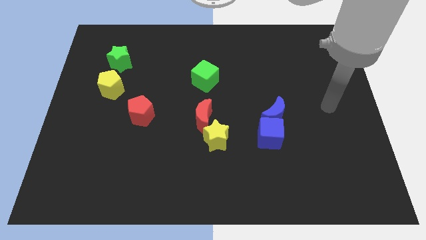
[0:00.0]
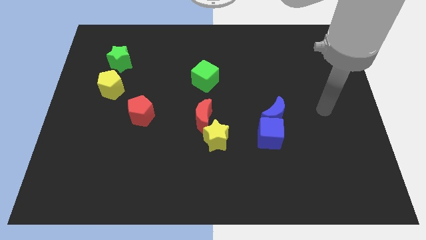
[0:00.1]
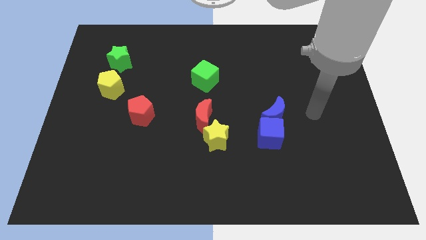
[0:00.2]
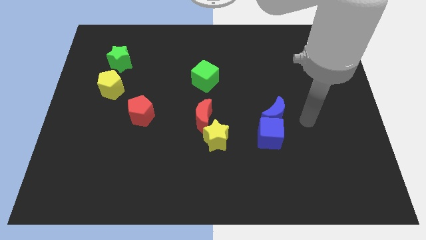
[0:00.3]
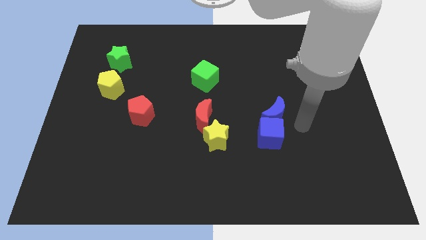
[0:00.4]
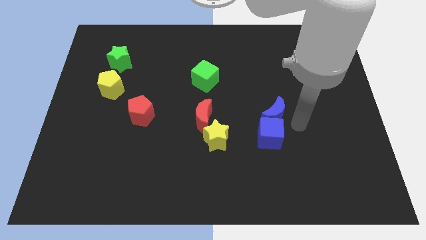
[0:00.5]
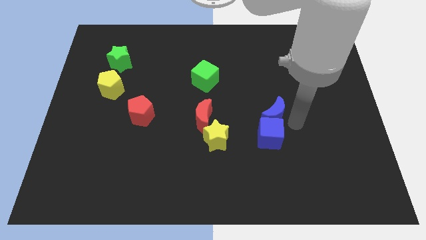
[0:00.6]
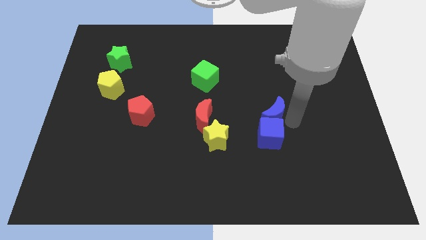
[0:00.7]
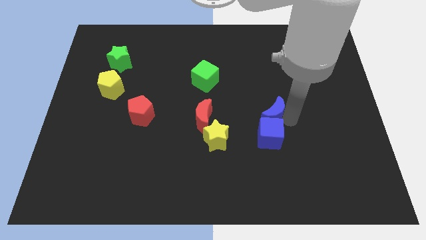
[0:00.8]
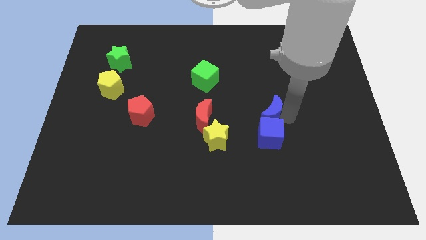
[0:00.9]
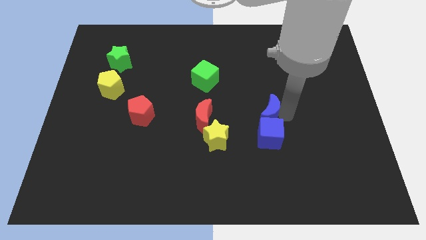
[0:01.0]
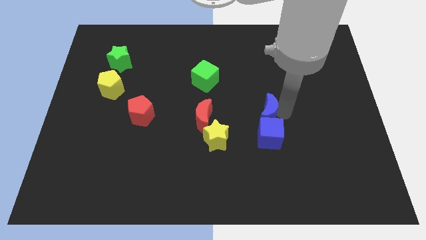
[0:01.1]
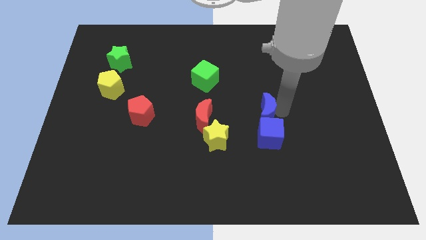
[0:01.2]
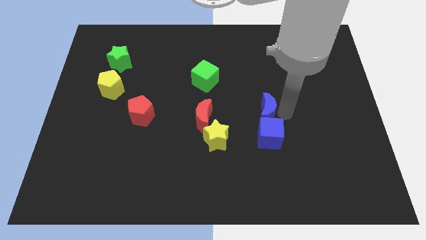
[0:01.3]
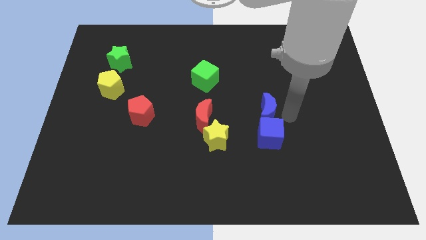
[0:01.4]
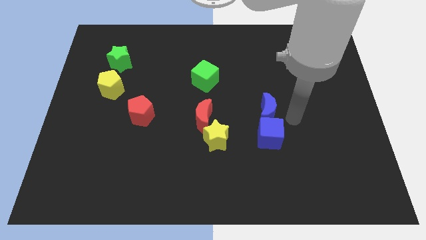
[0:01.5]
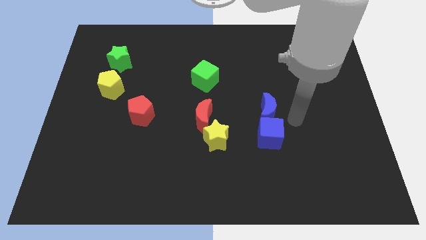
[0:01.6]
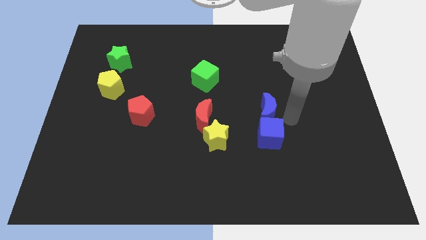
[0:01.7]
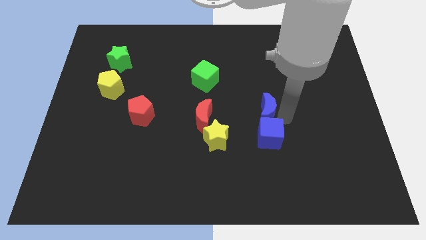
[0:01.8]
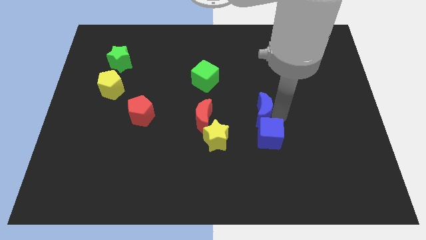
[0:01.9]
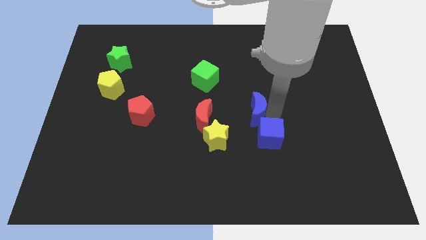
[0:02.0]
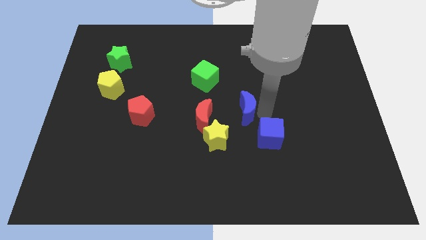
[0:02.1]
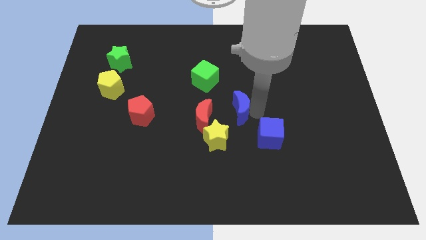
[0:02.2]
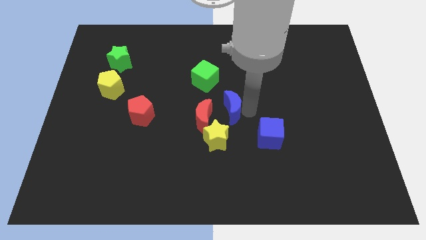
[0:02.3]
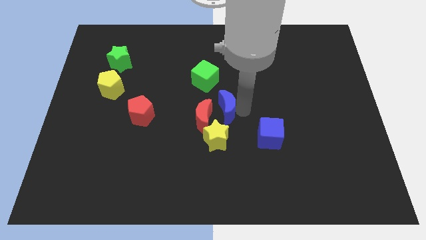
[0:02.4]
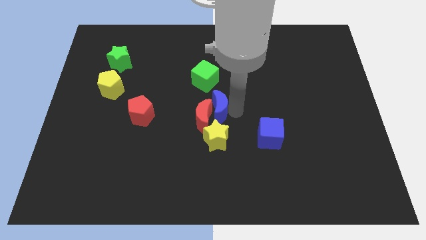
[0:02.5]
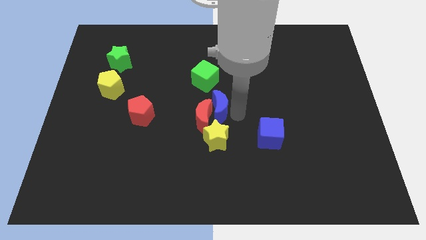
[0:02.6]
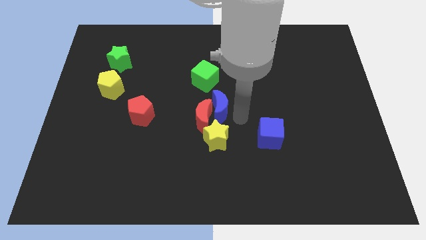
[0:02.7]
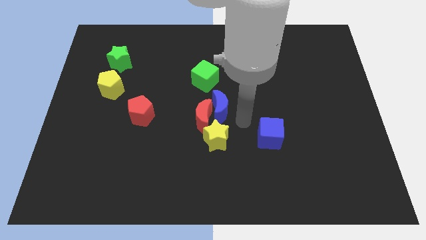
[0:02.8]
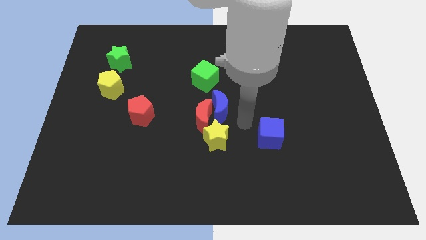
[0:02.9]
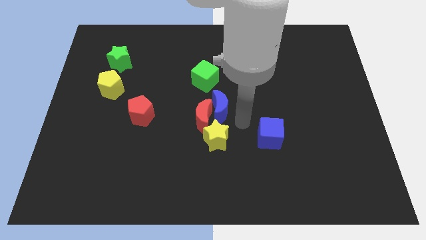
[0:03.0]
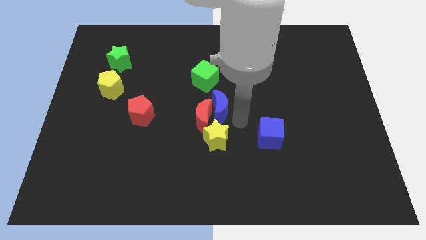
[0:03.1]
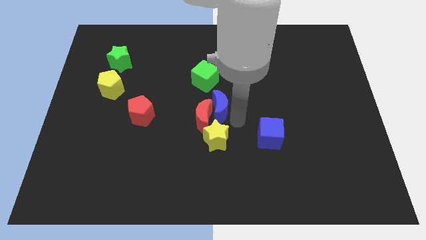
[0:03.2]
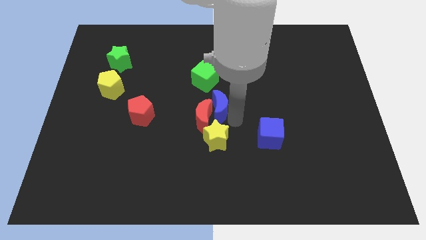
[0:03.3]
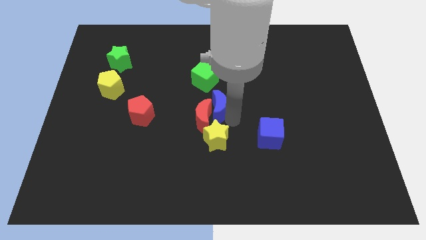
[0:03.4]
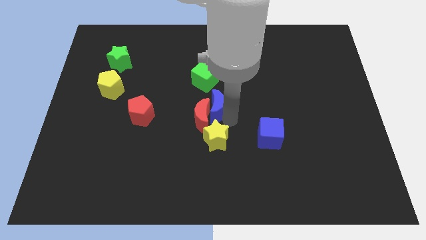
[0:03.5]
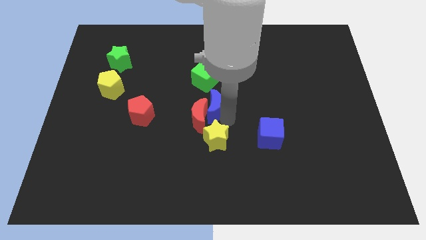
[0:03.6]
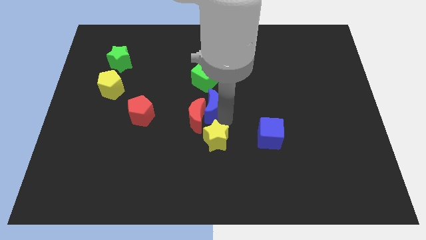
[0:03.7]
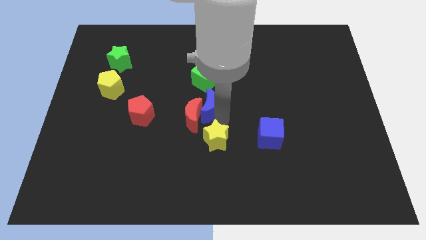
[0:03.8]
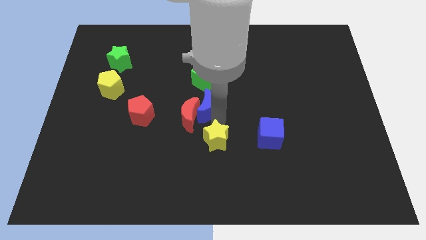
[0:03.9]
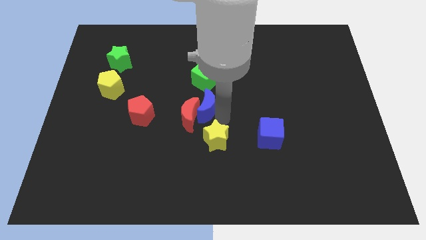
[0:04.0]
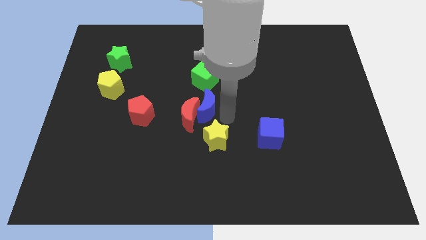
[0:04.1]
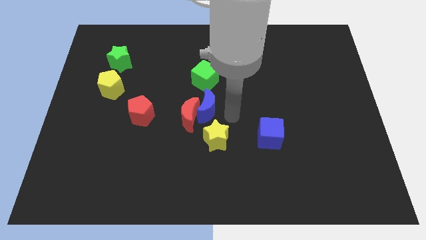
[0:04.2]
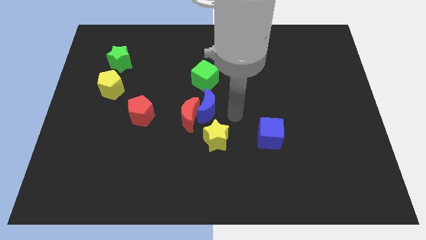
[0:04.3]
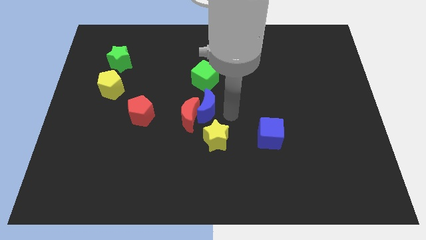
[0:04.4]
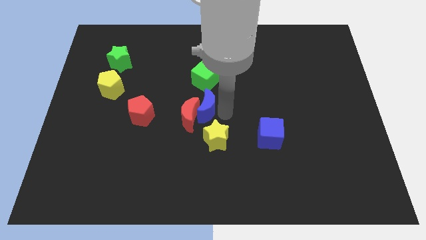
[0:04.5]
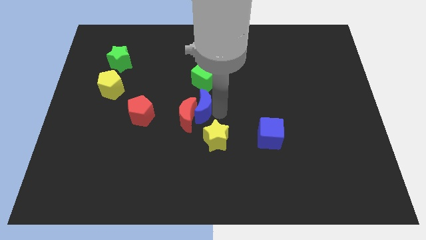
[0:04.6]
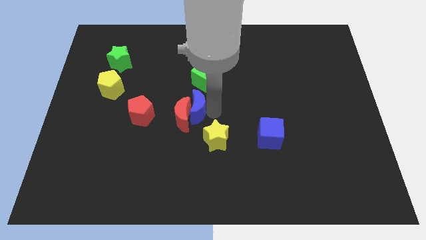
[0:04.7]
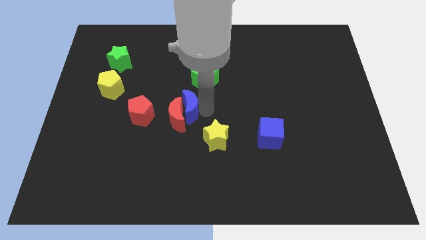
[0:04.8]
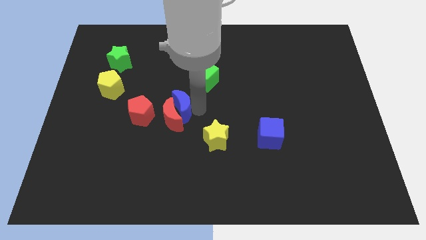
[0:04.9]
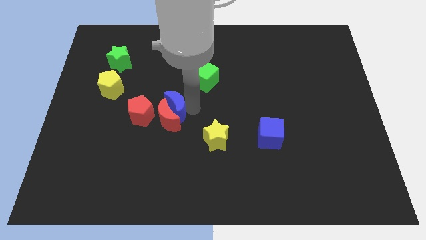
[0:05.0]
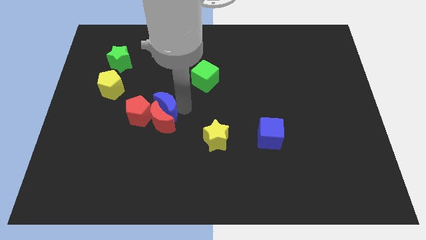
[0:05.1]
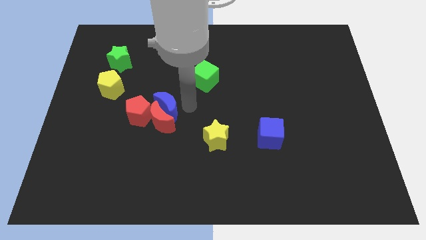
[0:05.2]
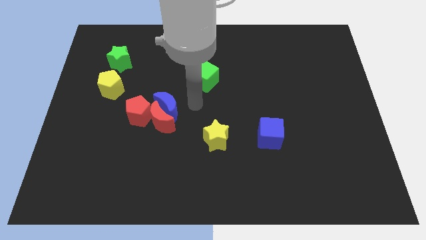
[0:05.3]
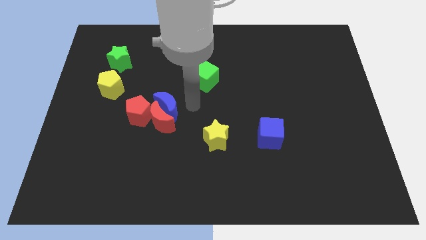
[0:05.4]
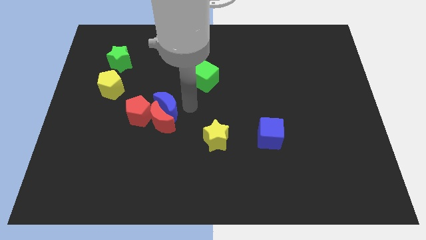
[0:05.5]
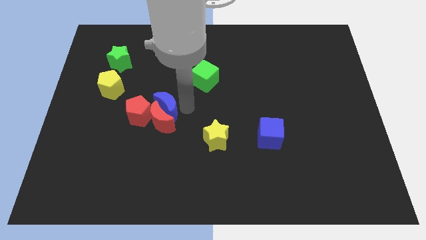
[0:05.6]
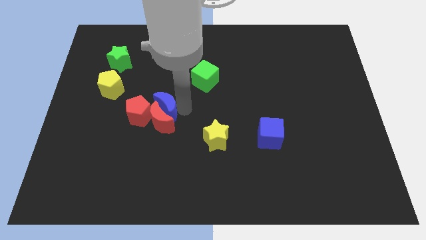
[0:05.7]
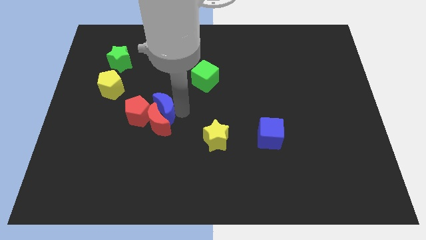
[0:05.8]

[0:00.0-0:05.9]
push the blue moon next to the red pentagon

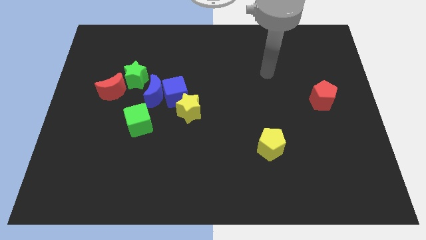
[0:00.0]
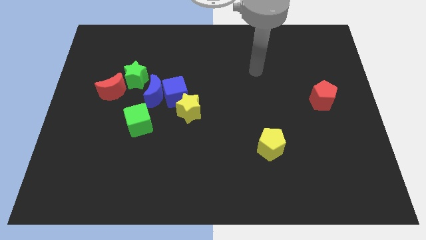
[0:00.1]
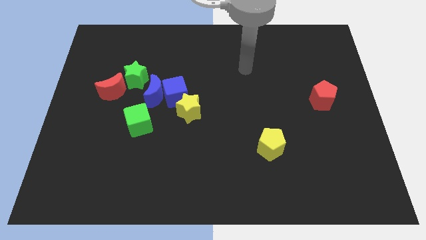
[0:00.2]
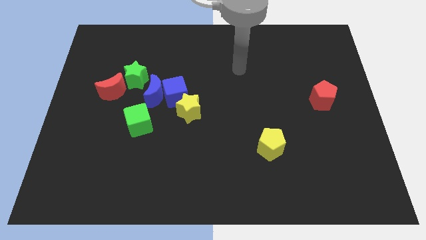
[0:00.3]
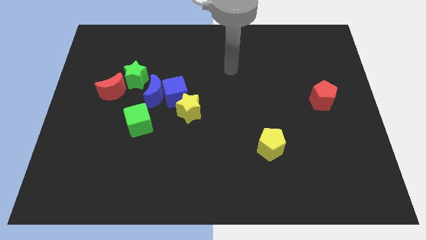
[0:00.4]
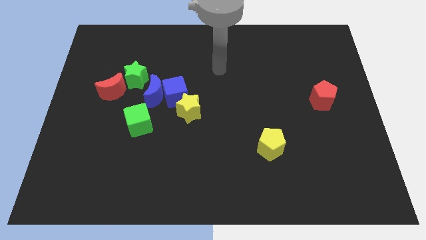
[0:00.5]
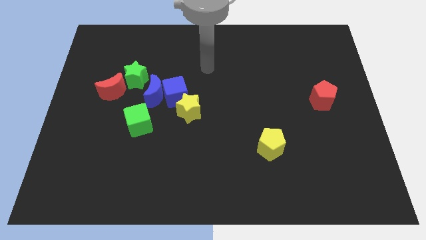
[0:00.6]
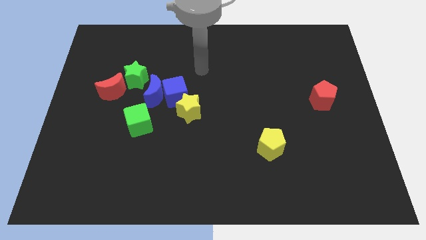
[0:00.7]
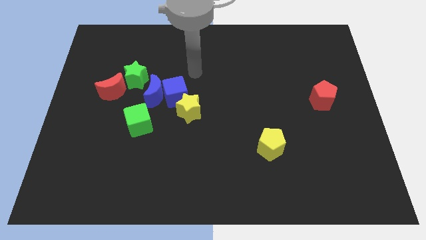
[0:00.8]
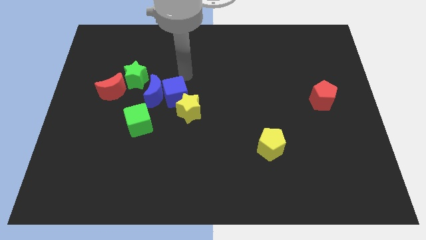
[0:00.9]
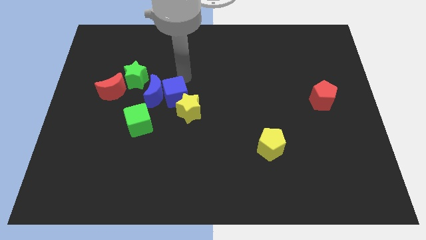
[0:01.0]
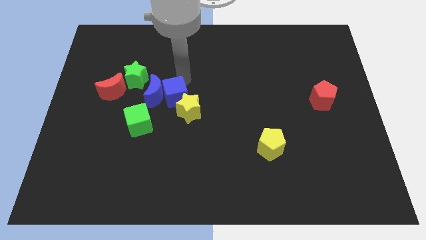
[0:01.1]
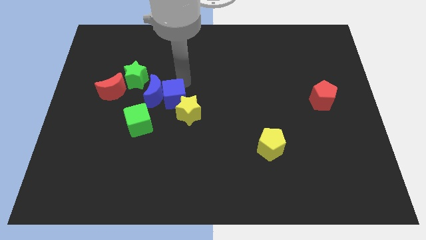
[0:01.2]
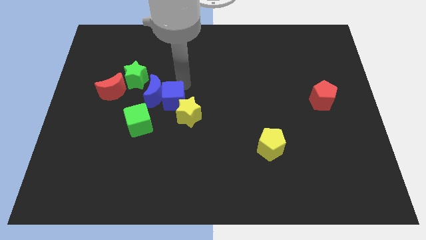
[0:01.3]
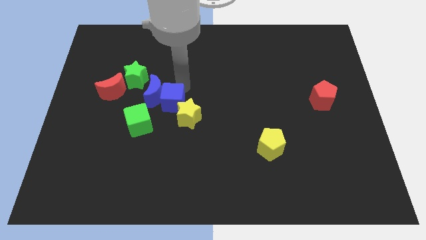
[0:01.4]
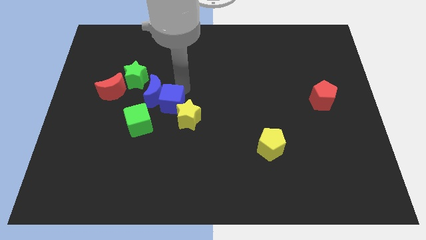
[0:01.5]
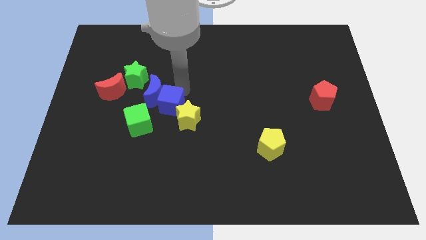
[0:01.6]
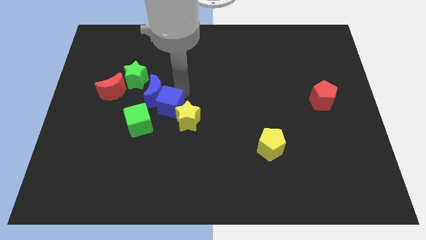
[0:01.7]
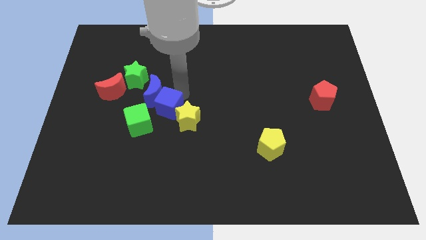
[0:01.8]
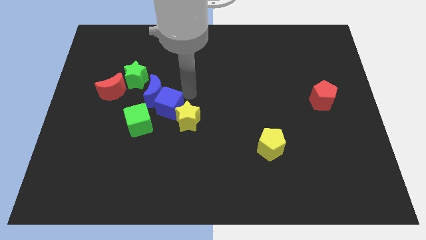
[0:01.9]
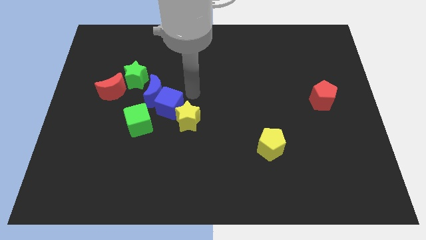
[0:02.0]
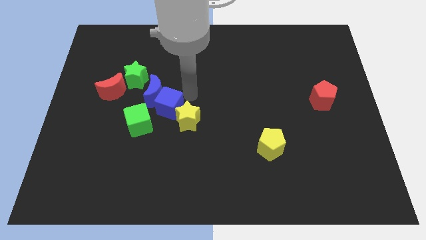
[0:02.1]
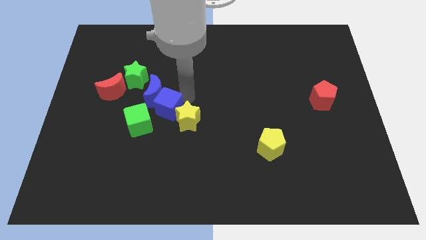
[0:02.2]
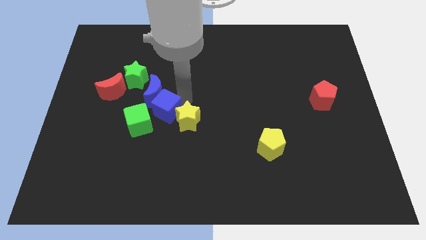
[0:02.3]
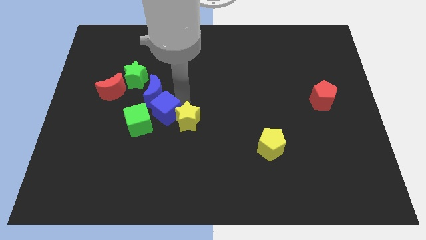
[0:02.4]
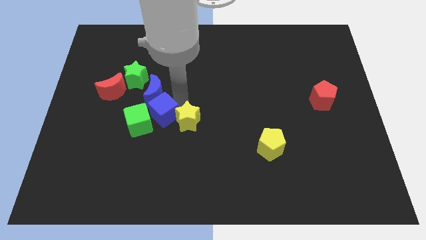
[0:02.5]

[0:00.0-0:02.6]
slide the blue cube close to the green cube
